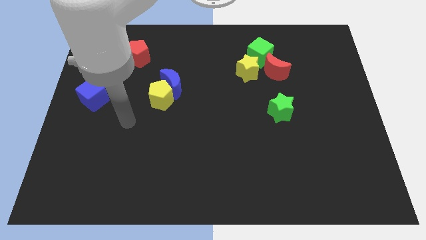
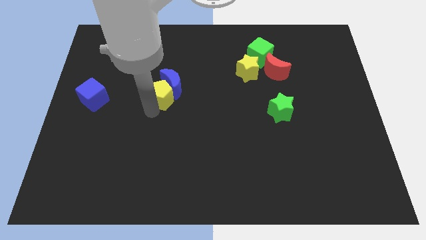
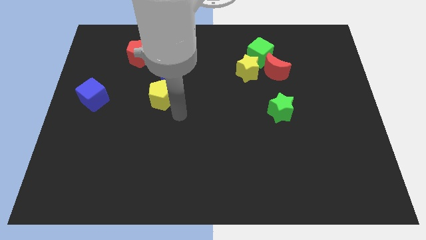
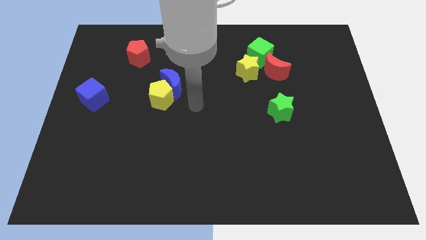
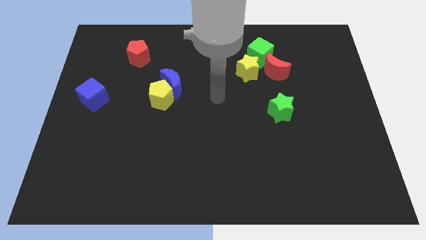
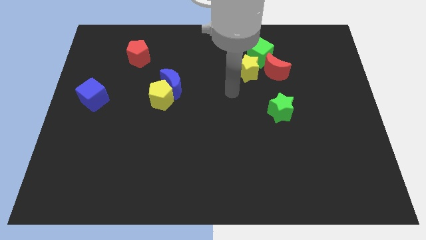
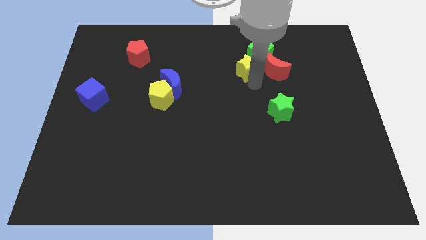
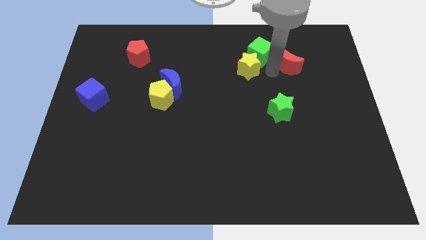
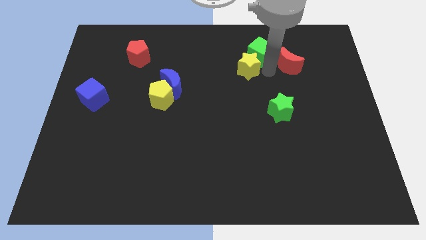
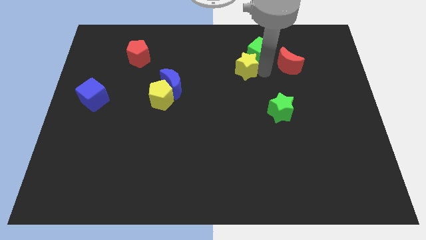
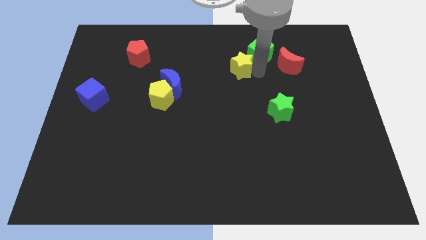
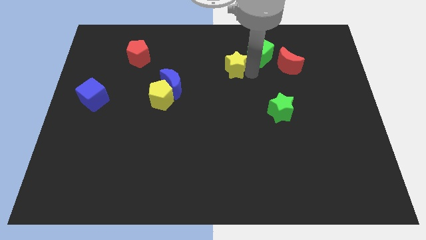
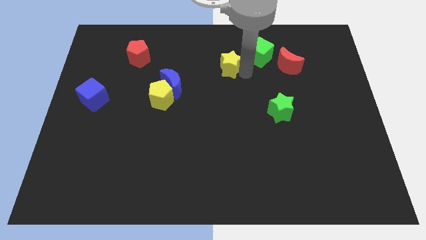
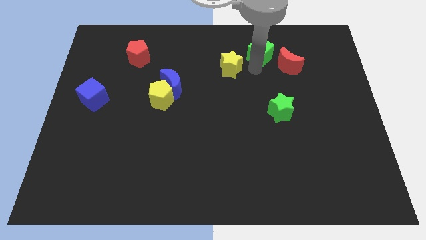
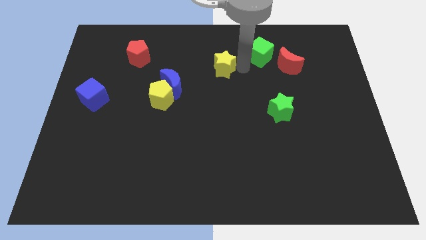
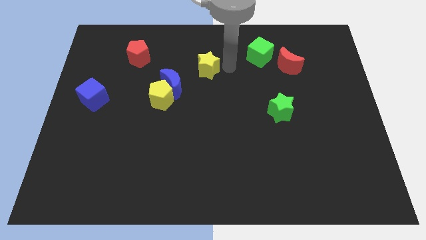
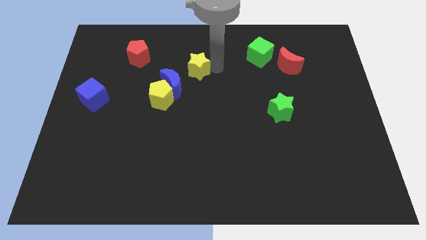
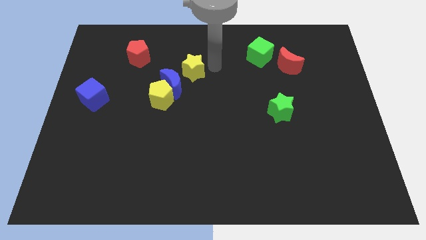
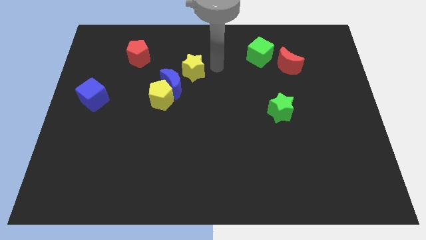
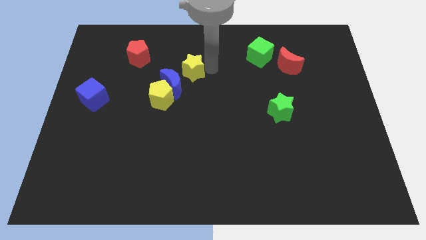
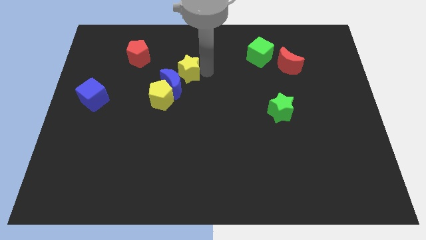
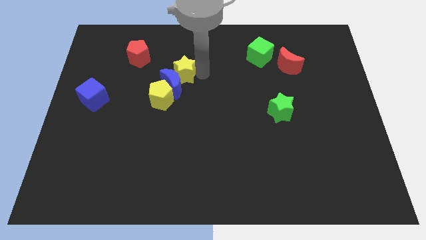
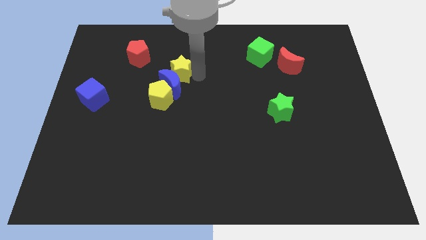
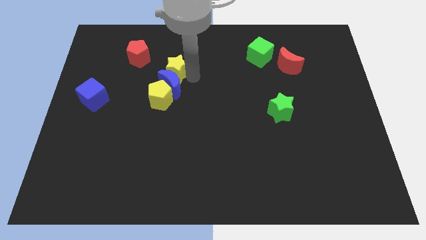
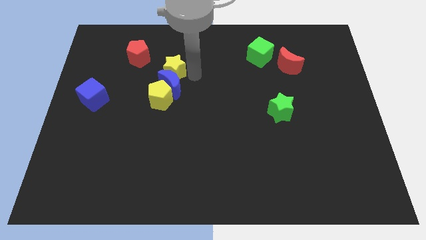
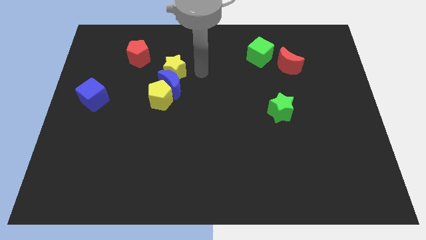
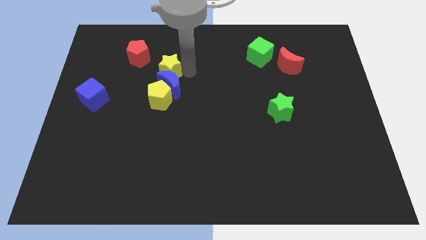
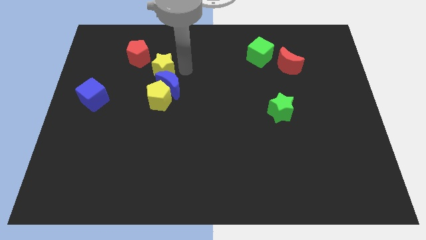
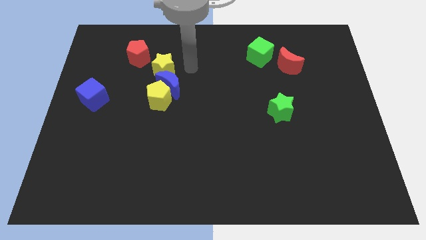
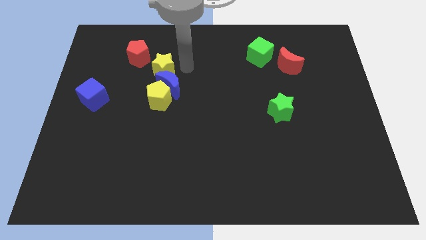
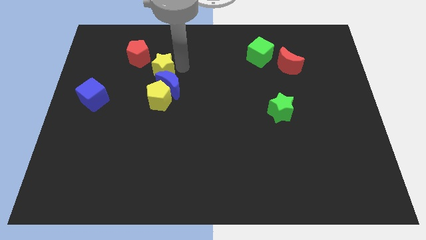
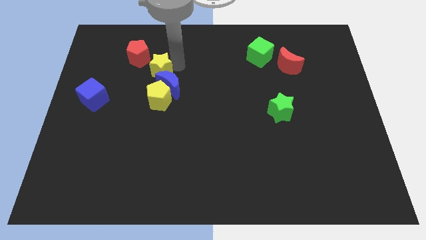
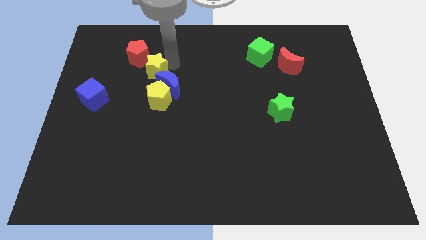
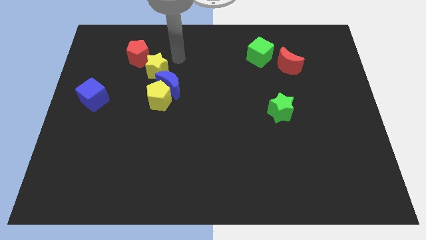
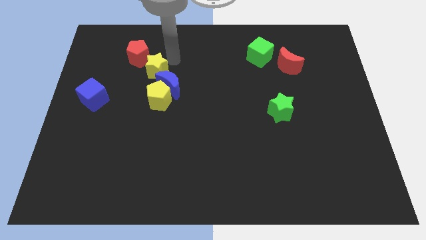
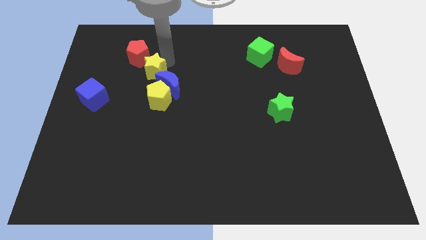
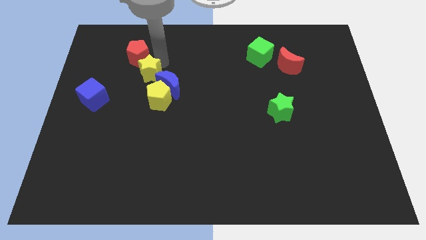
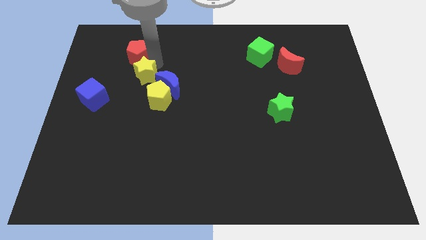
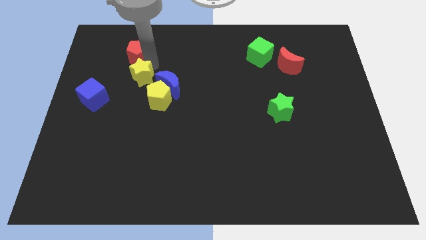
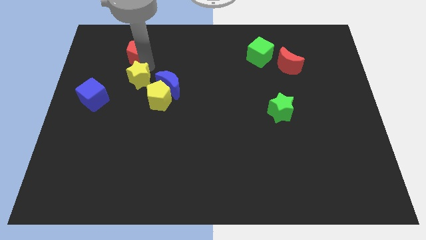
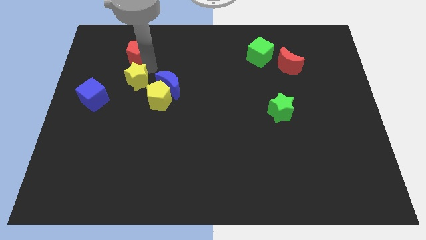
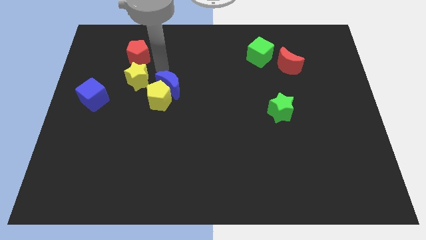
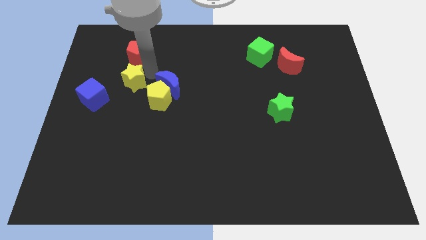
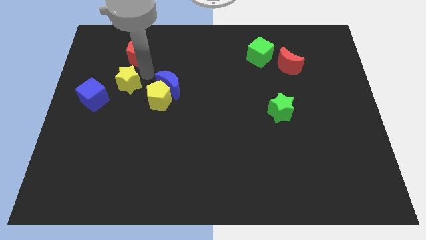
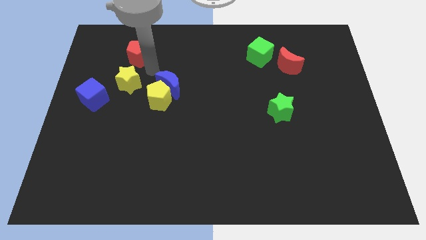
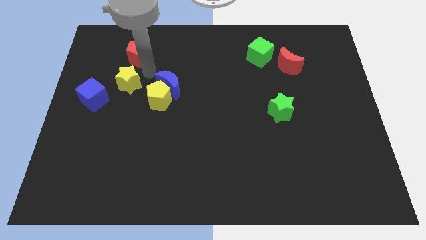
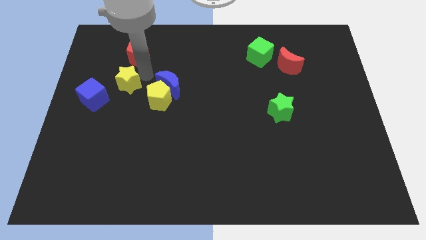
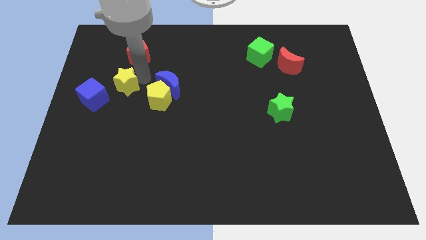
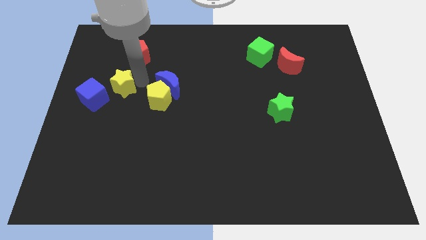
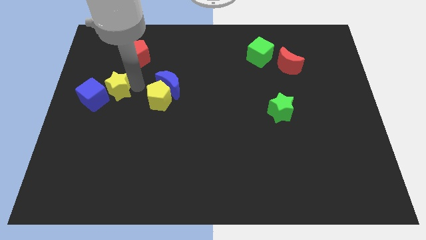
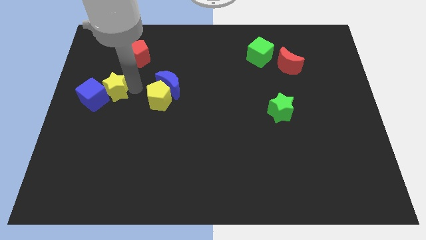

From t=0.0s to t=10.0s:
push the yellow star next to the blue cube

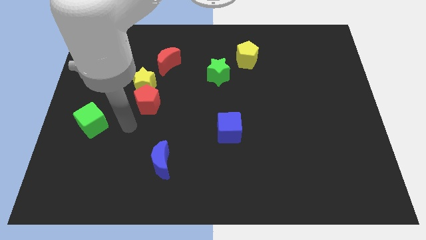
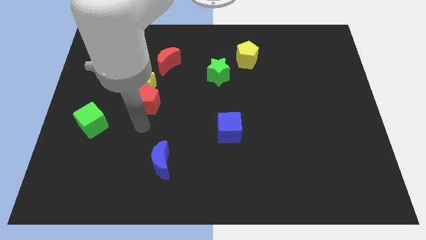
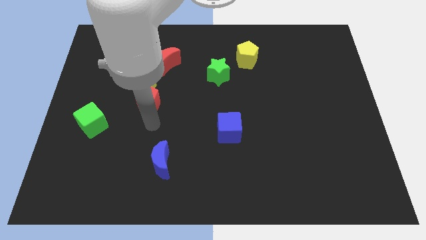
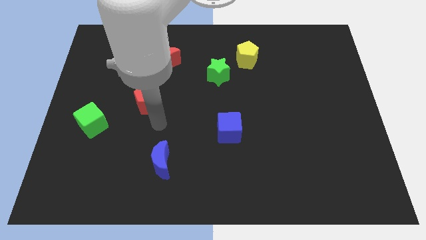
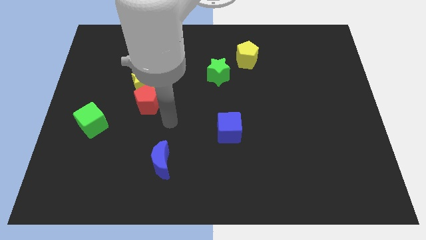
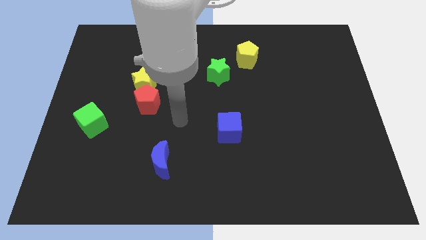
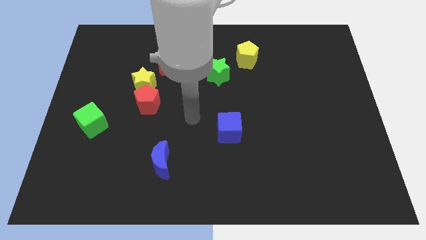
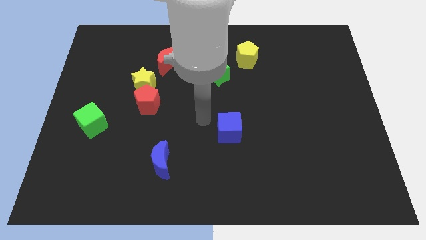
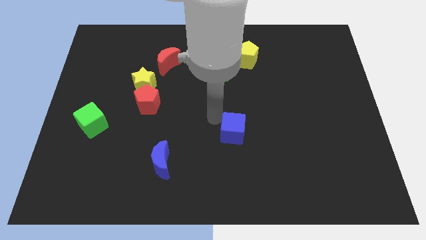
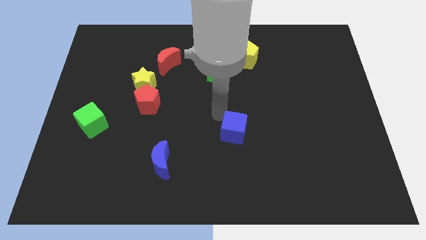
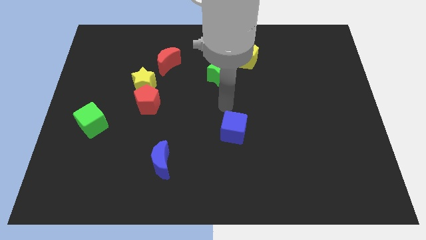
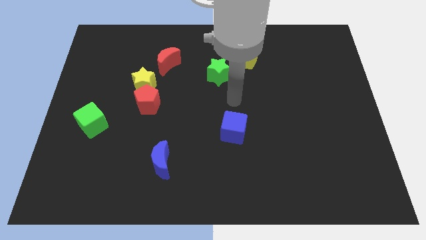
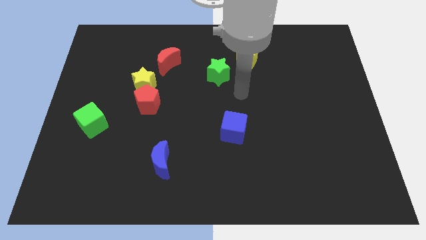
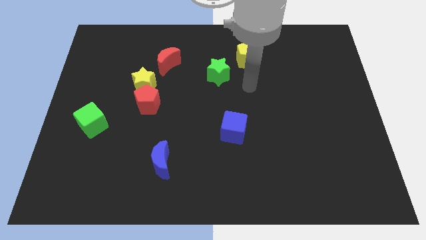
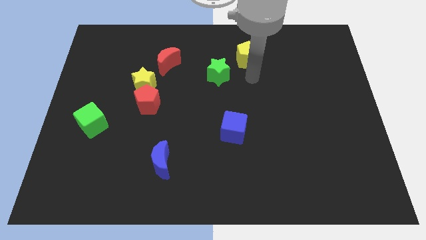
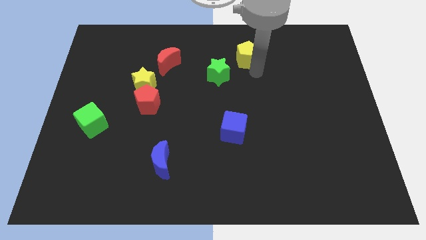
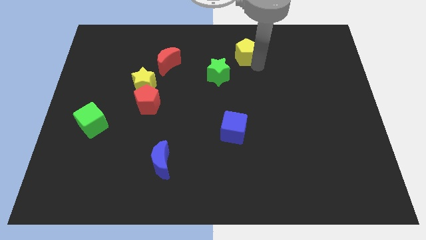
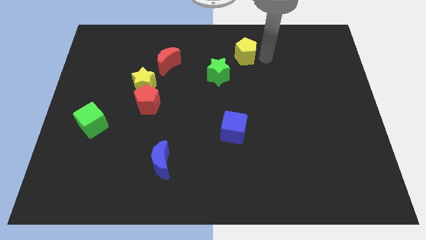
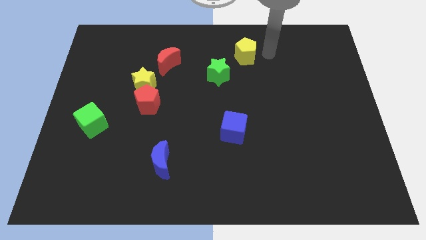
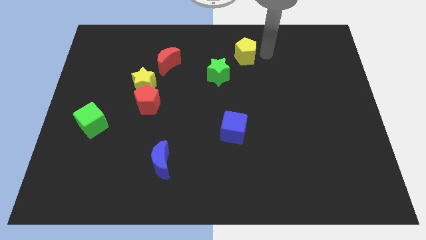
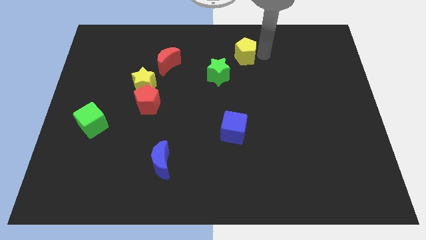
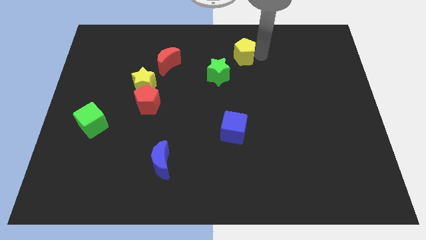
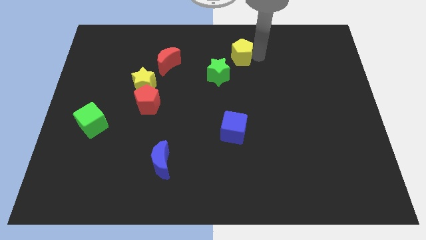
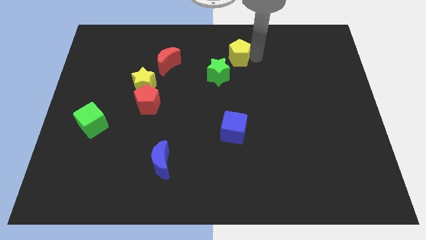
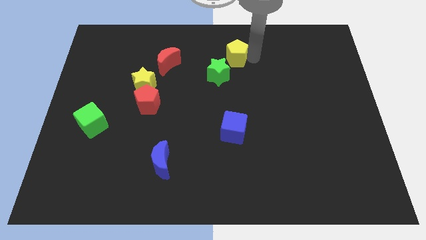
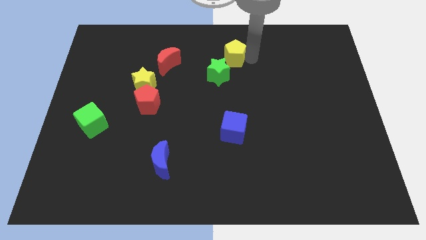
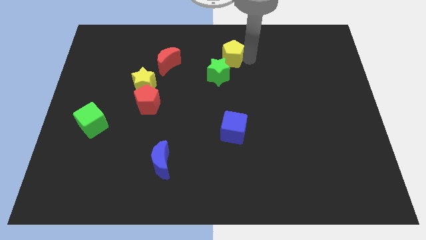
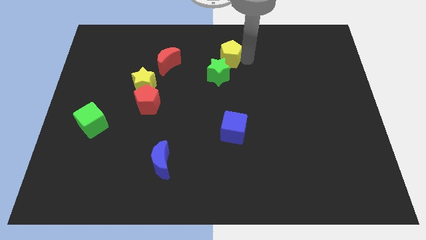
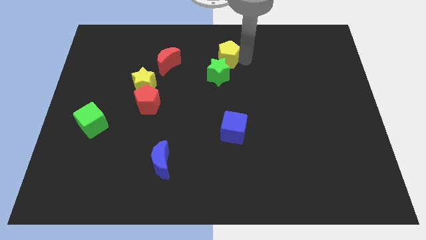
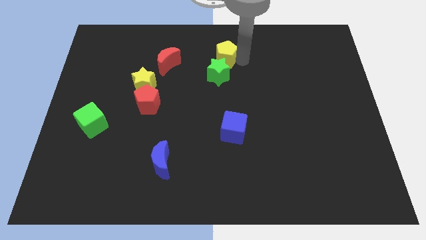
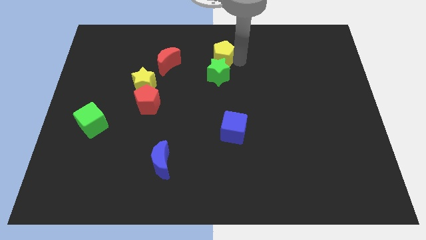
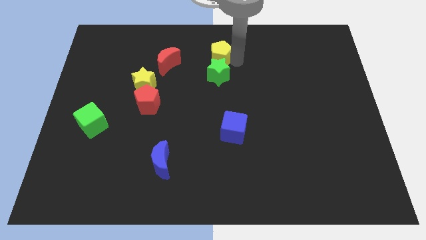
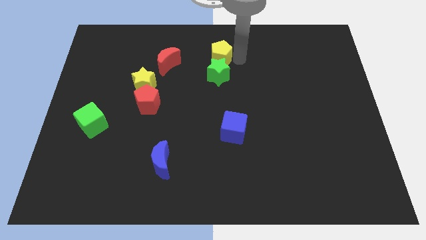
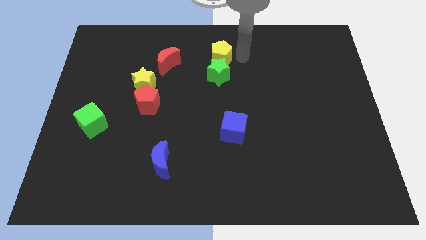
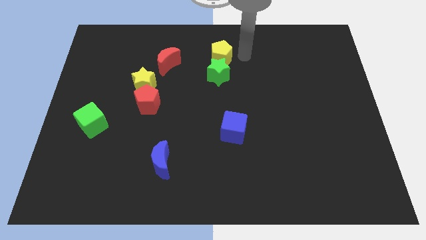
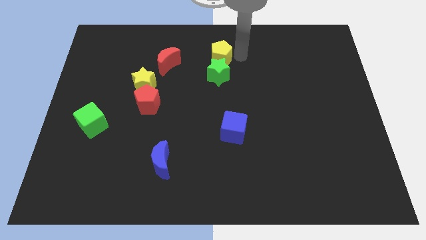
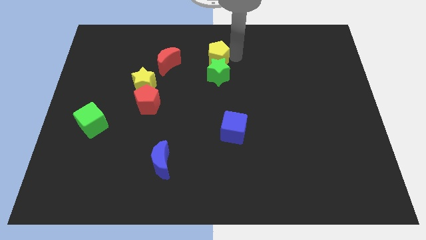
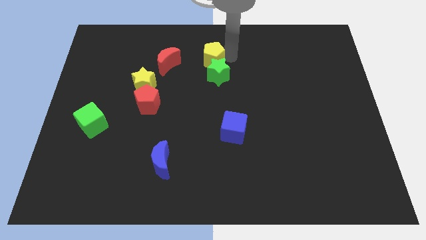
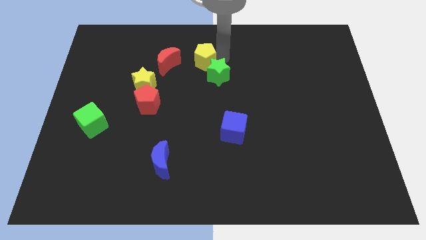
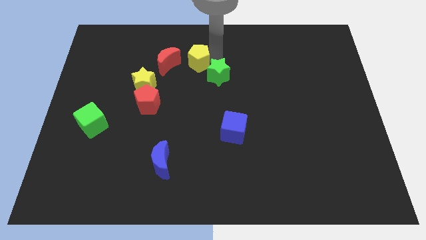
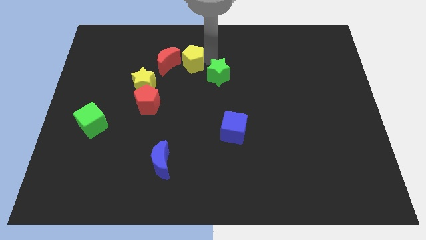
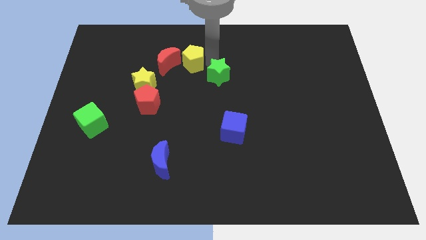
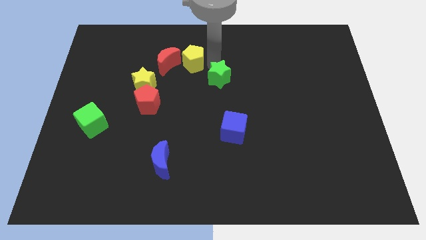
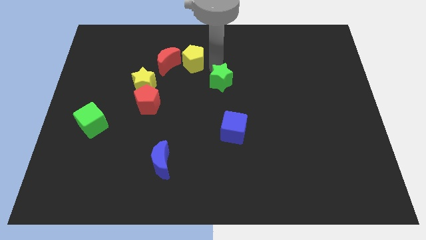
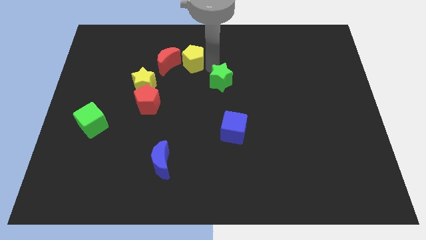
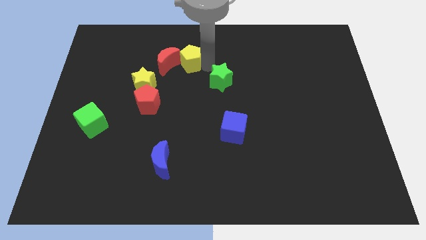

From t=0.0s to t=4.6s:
put the yellow pentagon towards the red moon
